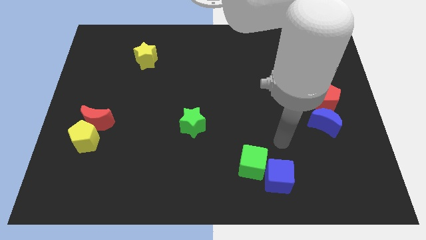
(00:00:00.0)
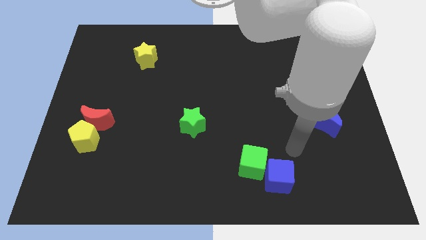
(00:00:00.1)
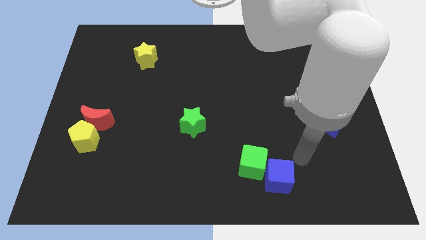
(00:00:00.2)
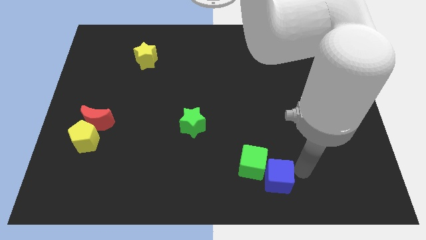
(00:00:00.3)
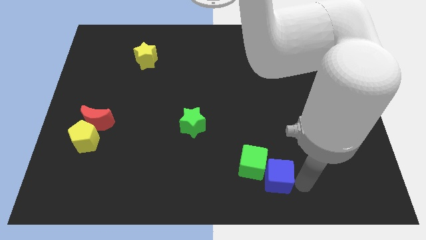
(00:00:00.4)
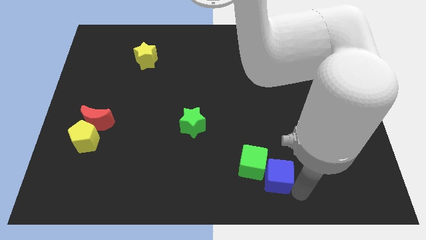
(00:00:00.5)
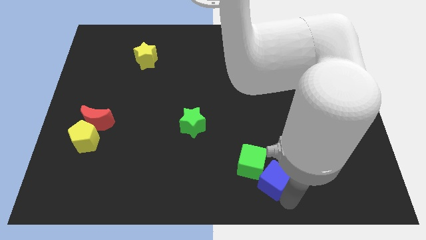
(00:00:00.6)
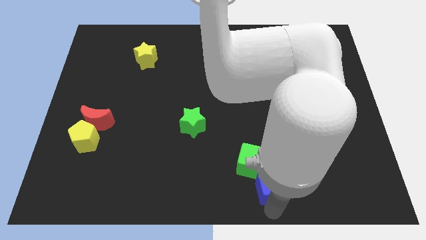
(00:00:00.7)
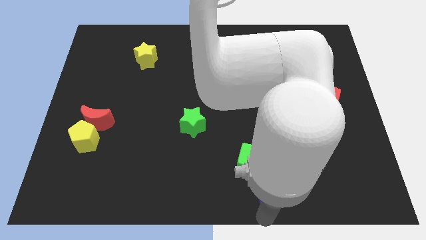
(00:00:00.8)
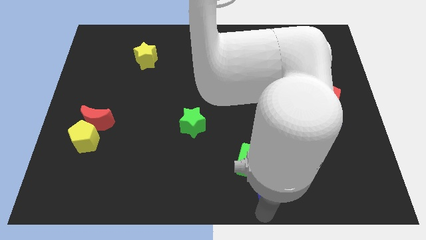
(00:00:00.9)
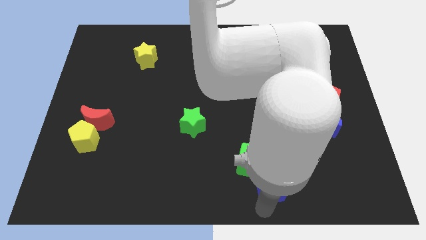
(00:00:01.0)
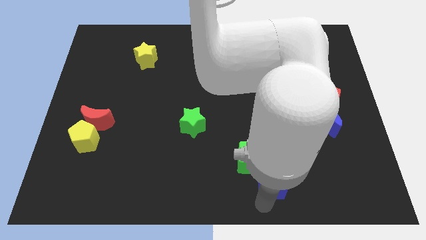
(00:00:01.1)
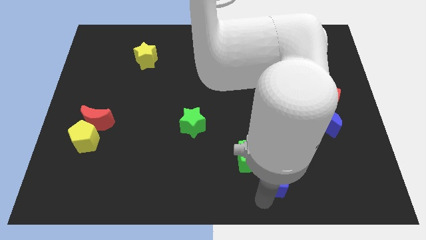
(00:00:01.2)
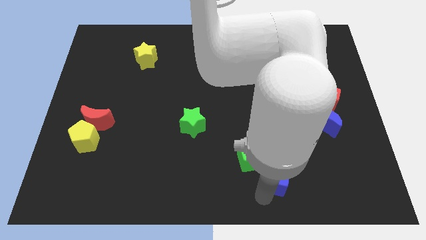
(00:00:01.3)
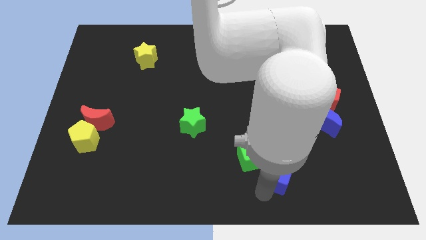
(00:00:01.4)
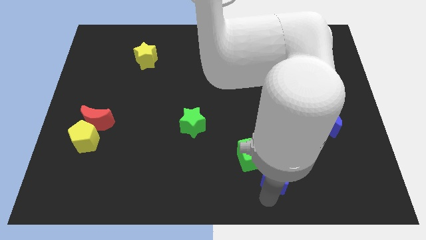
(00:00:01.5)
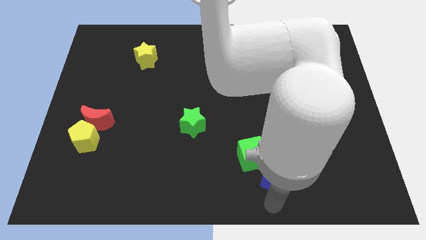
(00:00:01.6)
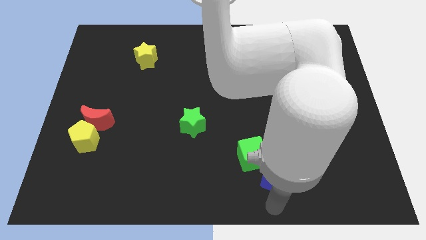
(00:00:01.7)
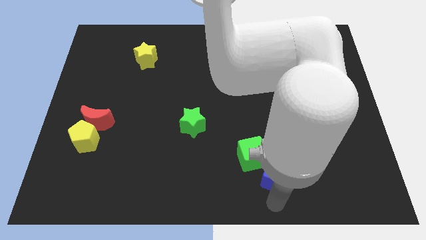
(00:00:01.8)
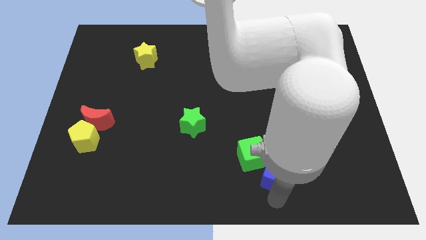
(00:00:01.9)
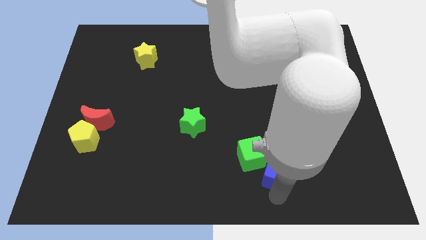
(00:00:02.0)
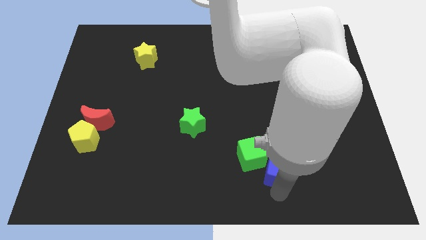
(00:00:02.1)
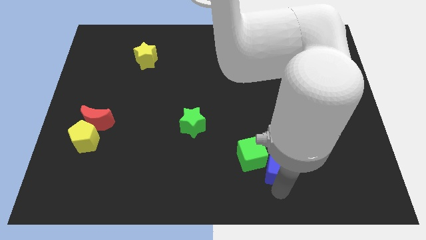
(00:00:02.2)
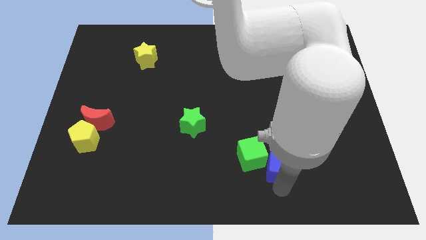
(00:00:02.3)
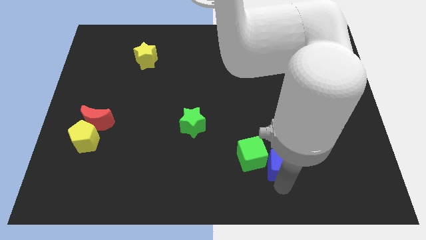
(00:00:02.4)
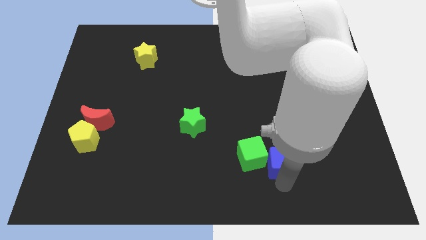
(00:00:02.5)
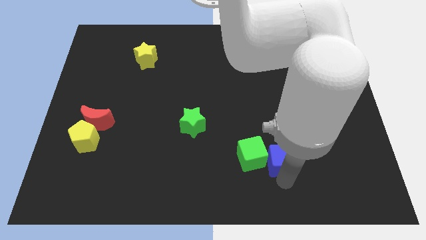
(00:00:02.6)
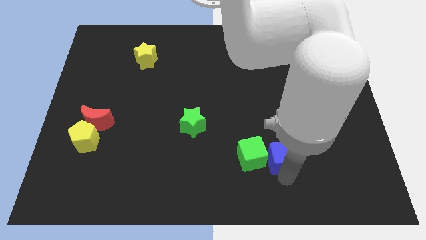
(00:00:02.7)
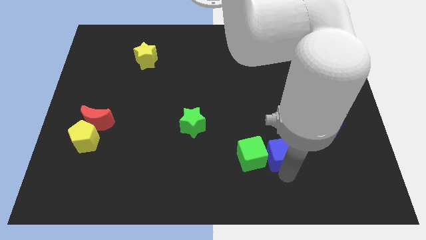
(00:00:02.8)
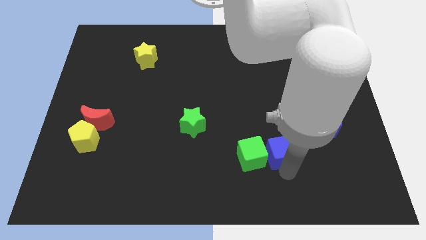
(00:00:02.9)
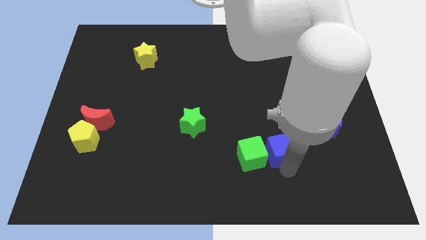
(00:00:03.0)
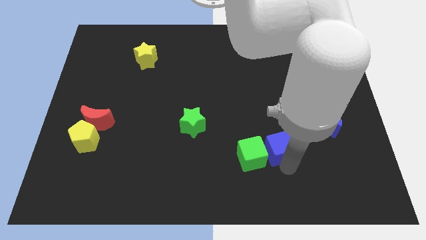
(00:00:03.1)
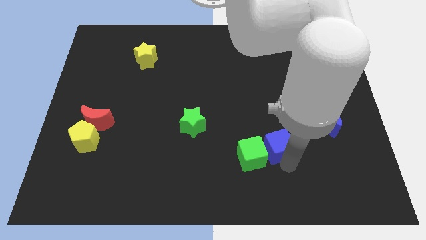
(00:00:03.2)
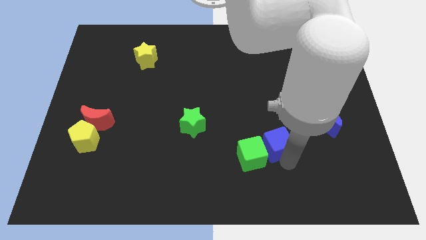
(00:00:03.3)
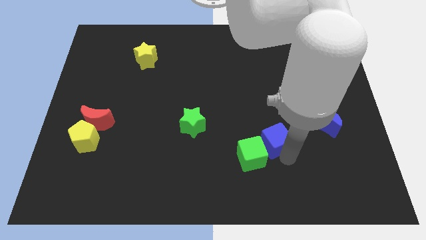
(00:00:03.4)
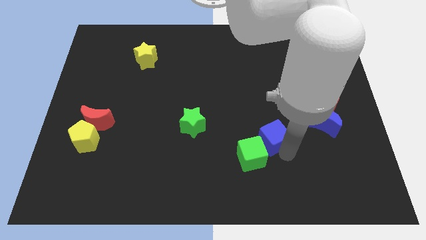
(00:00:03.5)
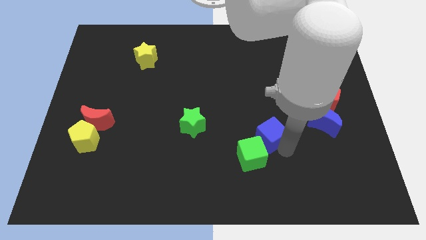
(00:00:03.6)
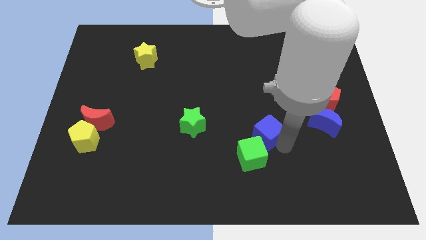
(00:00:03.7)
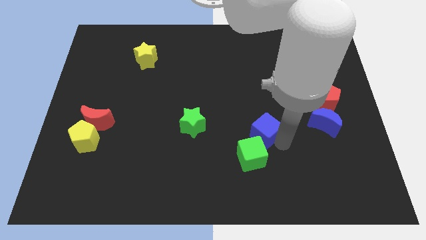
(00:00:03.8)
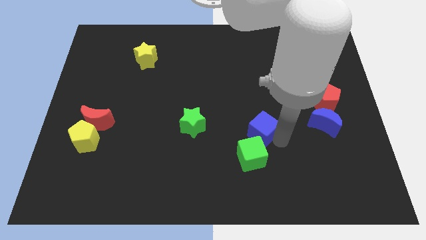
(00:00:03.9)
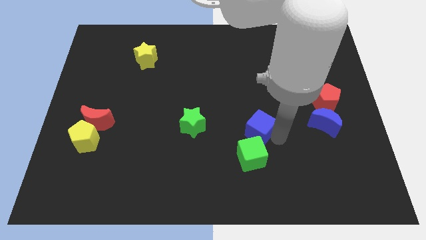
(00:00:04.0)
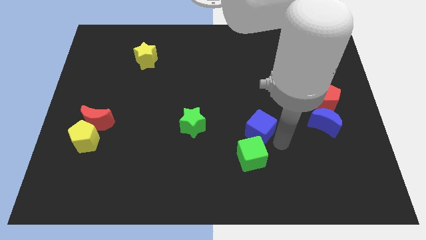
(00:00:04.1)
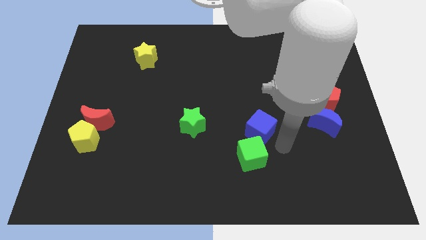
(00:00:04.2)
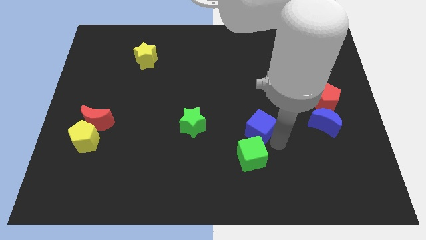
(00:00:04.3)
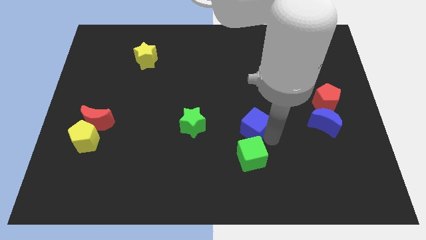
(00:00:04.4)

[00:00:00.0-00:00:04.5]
put the blue cube to the middle

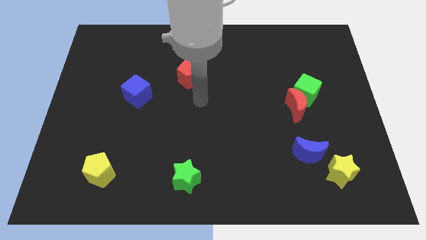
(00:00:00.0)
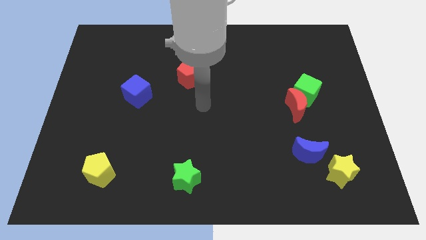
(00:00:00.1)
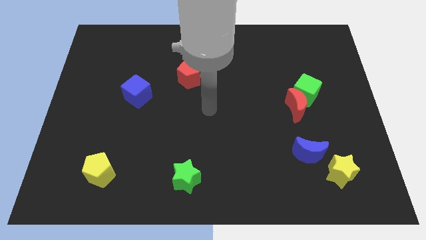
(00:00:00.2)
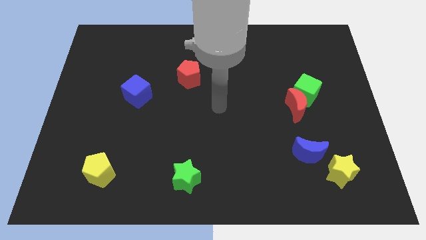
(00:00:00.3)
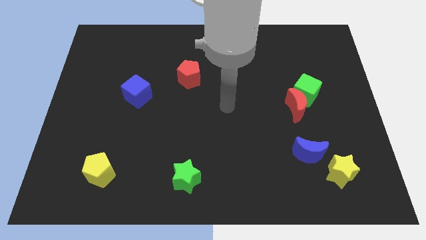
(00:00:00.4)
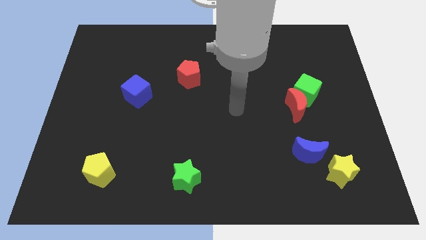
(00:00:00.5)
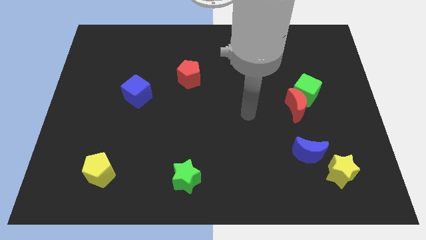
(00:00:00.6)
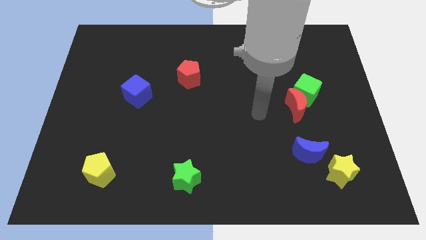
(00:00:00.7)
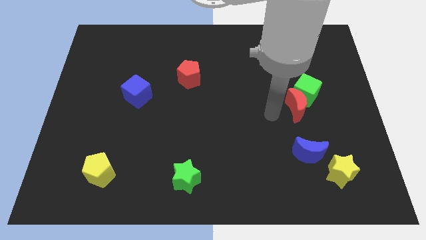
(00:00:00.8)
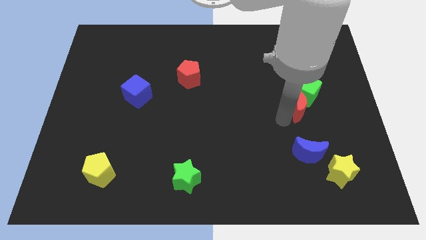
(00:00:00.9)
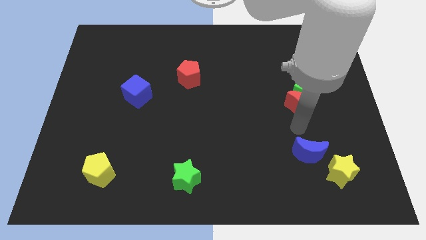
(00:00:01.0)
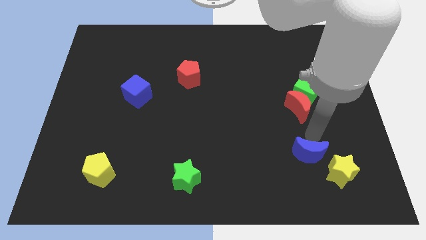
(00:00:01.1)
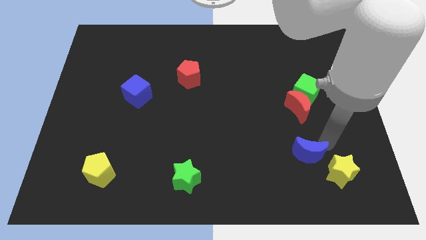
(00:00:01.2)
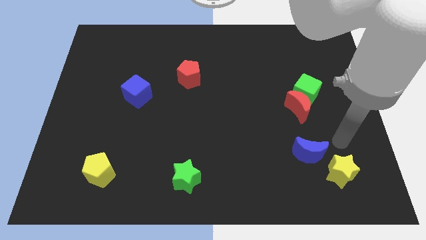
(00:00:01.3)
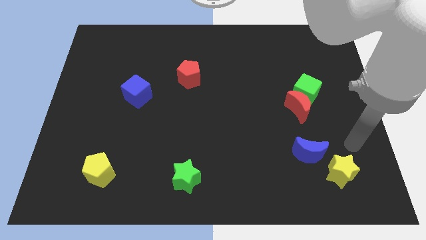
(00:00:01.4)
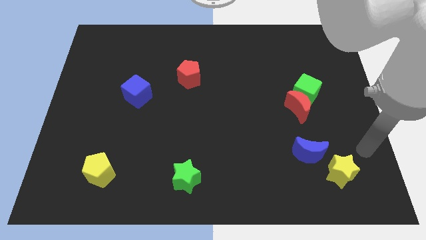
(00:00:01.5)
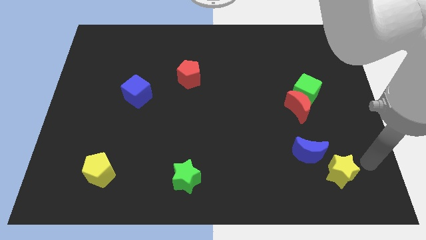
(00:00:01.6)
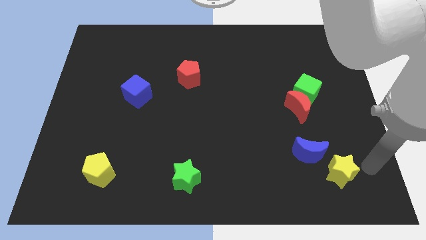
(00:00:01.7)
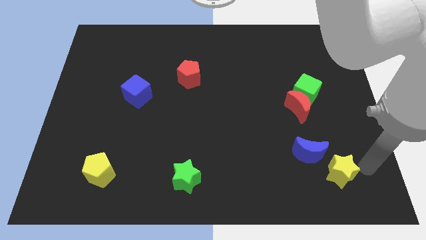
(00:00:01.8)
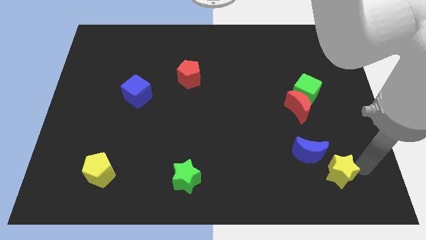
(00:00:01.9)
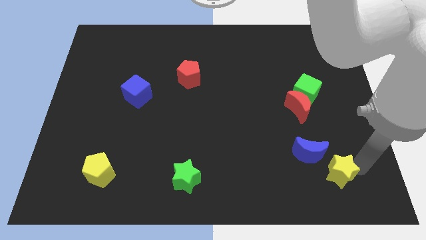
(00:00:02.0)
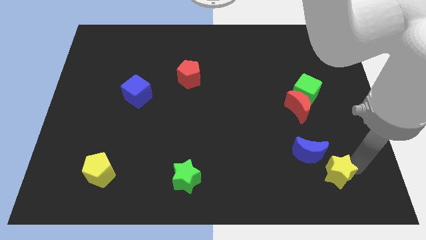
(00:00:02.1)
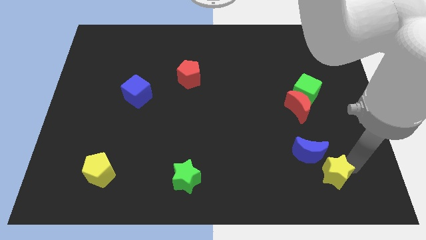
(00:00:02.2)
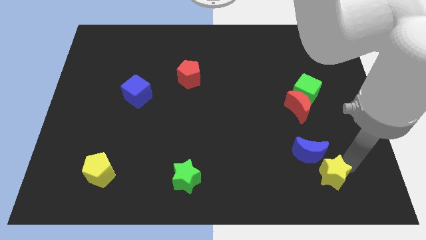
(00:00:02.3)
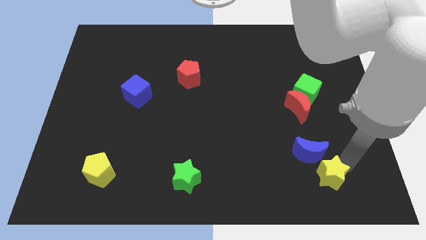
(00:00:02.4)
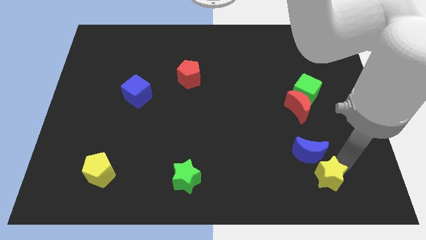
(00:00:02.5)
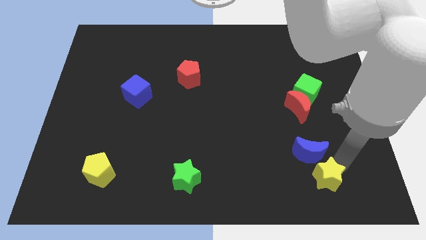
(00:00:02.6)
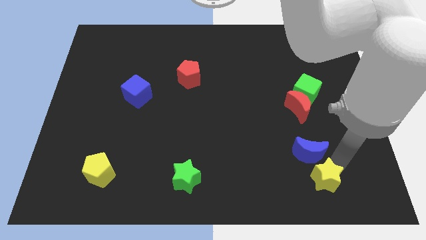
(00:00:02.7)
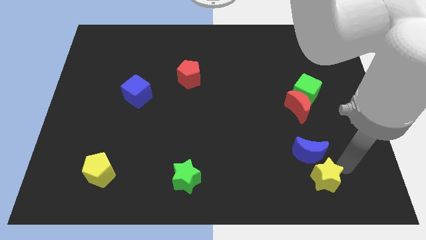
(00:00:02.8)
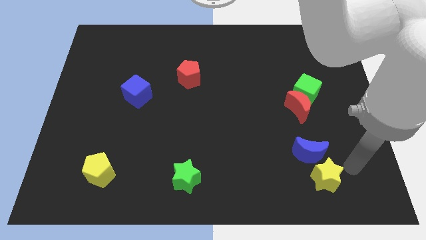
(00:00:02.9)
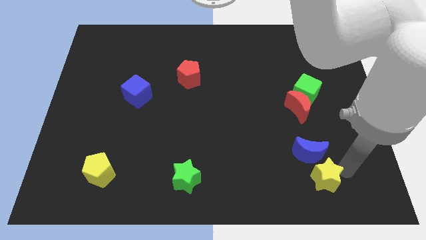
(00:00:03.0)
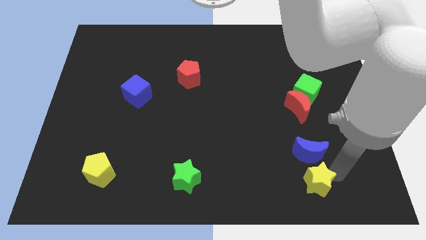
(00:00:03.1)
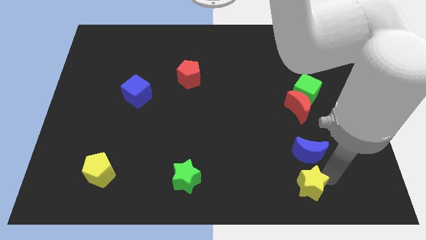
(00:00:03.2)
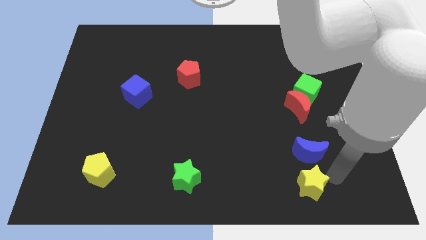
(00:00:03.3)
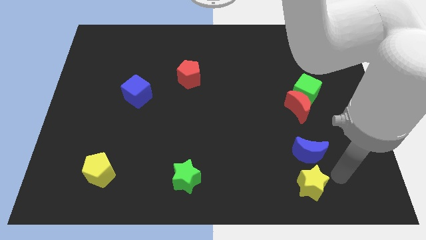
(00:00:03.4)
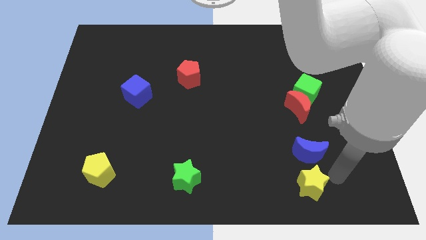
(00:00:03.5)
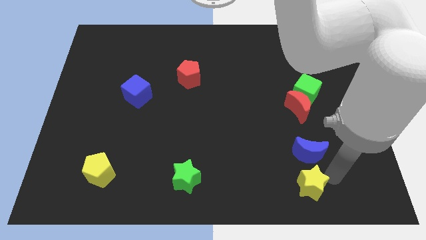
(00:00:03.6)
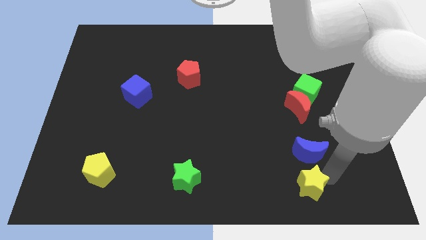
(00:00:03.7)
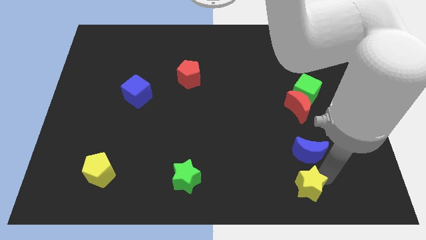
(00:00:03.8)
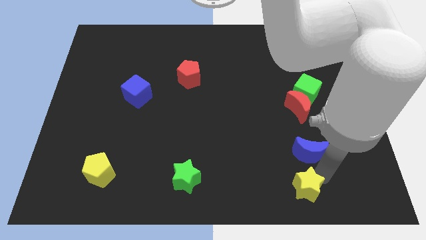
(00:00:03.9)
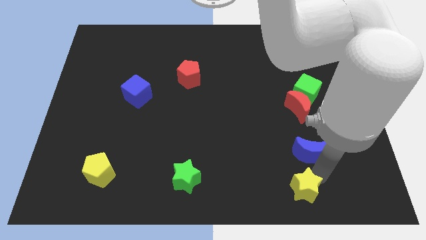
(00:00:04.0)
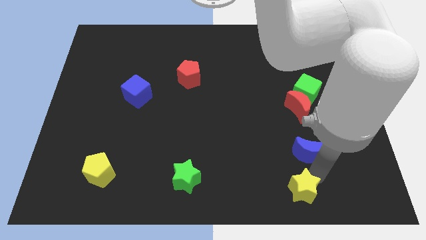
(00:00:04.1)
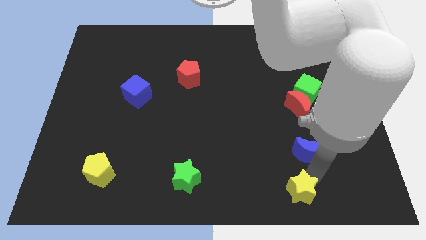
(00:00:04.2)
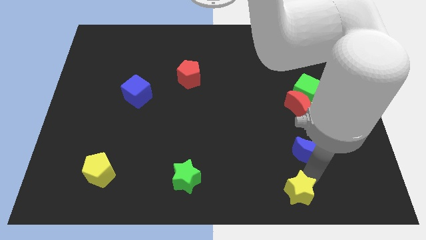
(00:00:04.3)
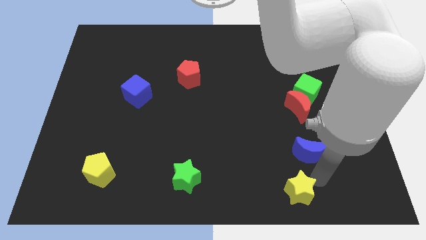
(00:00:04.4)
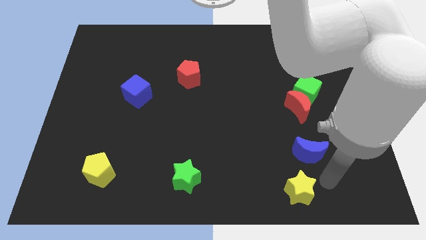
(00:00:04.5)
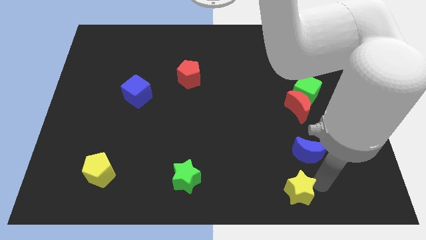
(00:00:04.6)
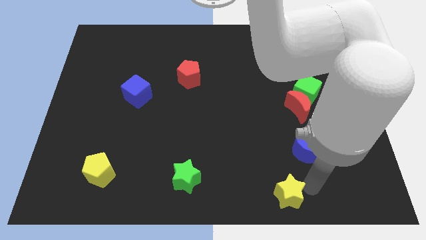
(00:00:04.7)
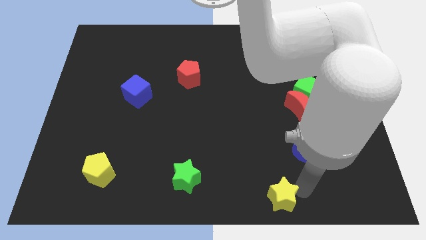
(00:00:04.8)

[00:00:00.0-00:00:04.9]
slide the yellow star to the bottom
